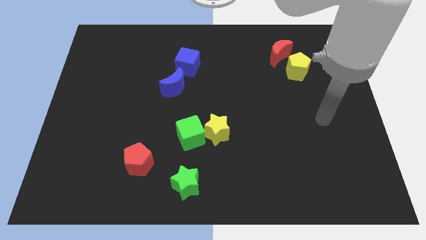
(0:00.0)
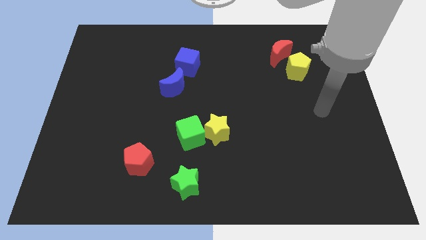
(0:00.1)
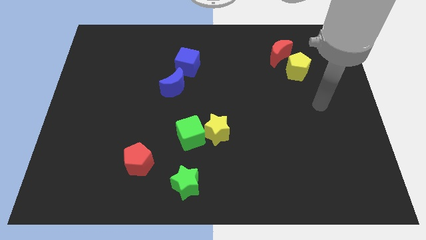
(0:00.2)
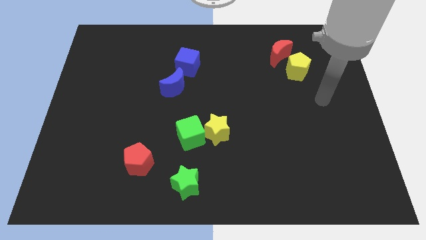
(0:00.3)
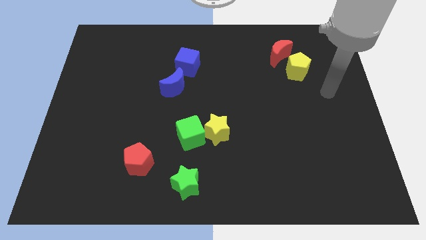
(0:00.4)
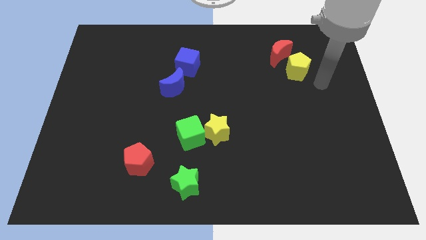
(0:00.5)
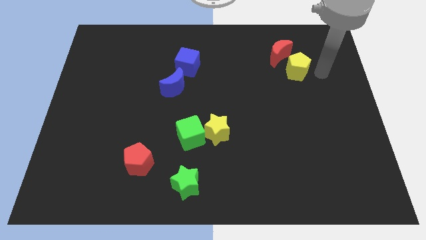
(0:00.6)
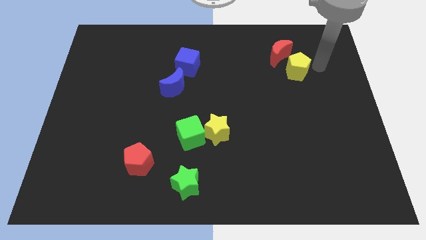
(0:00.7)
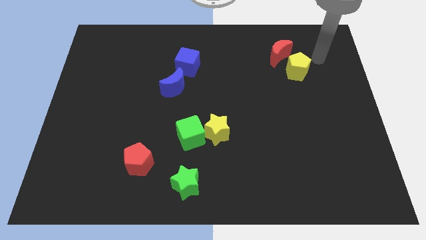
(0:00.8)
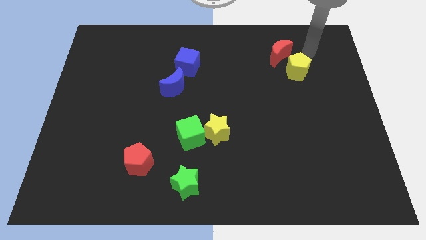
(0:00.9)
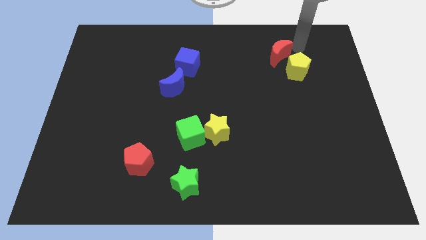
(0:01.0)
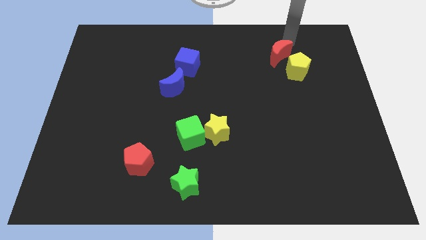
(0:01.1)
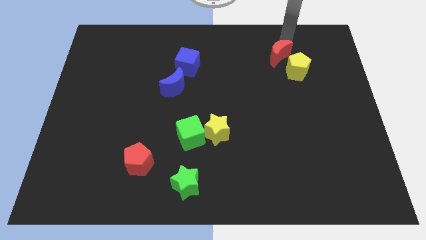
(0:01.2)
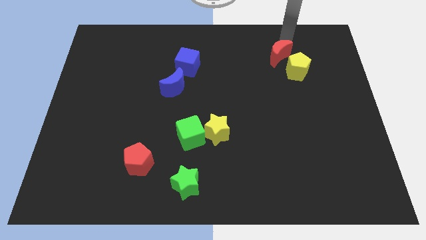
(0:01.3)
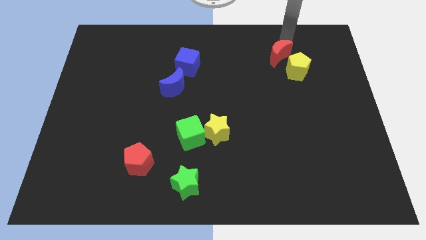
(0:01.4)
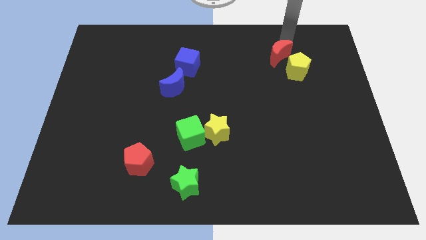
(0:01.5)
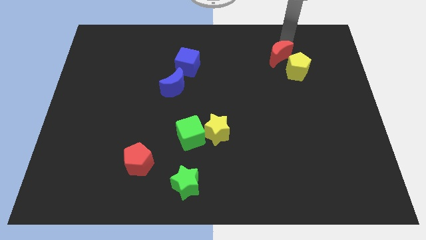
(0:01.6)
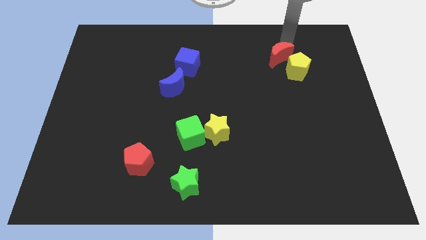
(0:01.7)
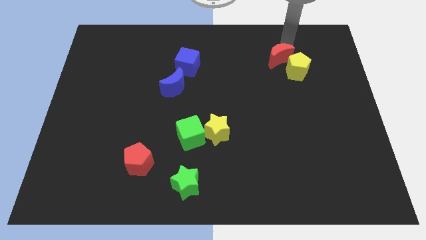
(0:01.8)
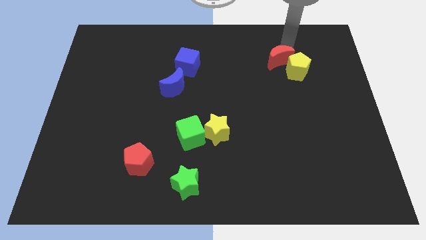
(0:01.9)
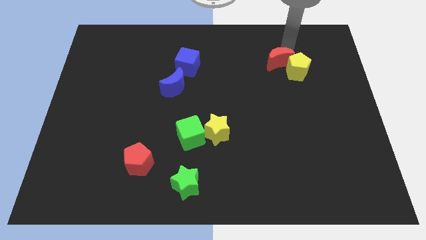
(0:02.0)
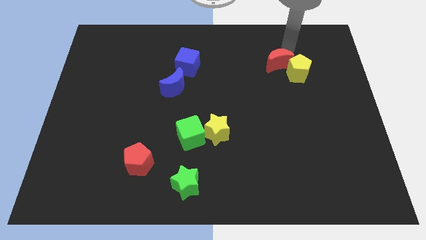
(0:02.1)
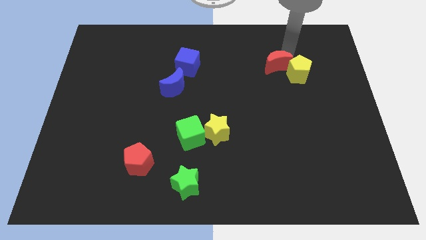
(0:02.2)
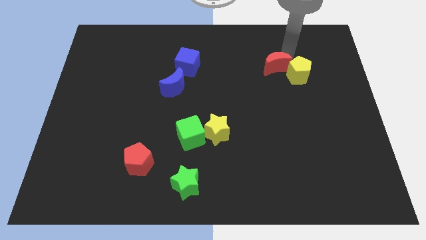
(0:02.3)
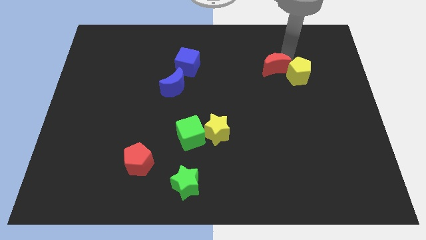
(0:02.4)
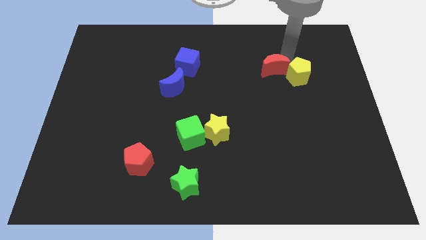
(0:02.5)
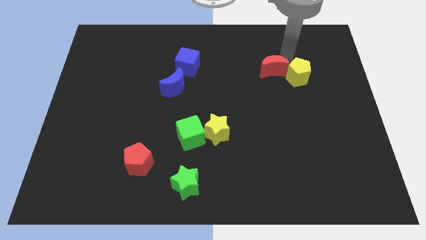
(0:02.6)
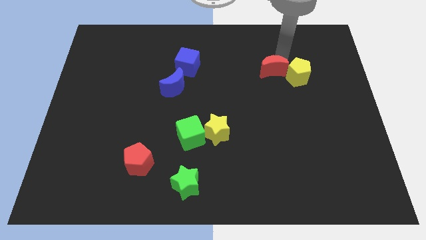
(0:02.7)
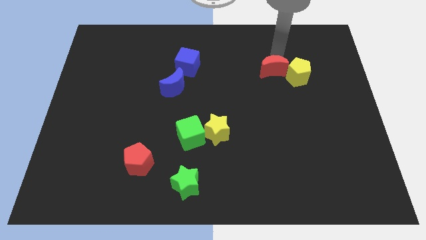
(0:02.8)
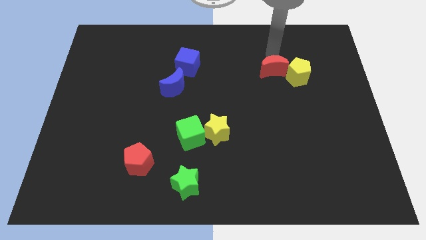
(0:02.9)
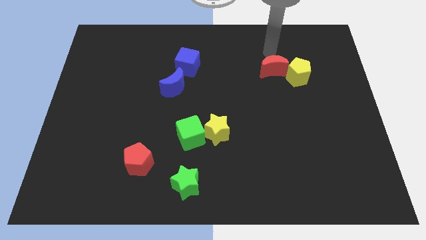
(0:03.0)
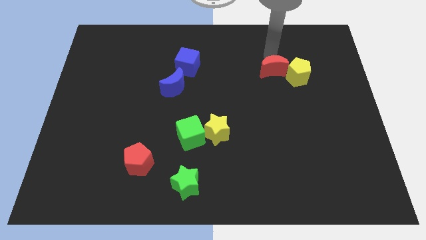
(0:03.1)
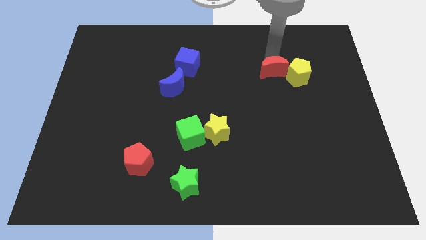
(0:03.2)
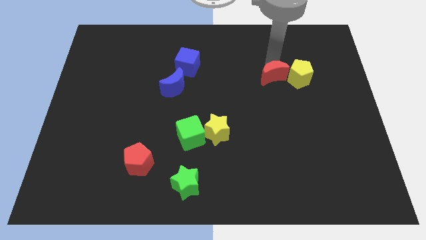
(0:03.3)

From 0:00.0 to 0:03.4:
slightly push the red moon down

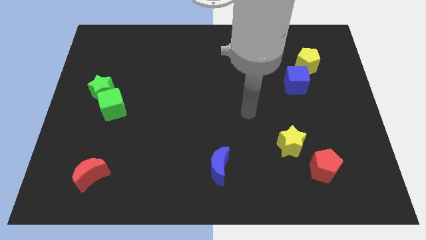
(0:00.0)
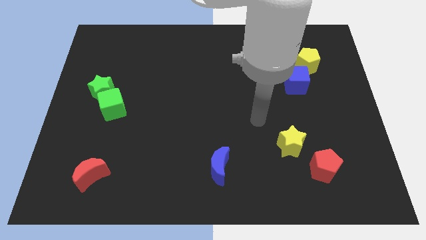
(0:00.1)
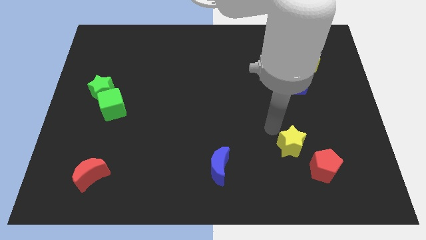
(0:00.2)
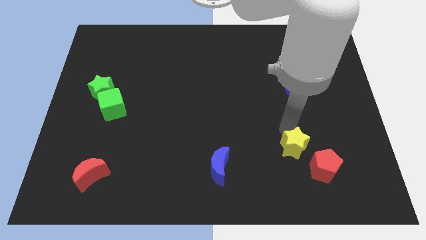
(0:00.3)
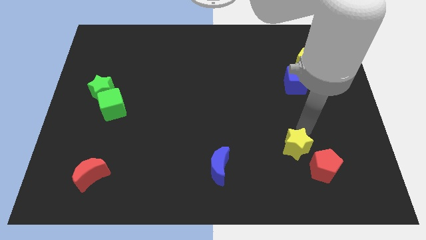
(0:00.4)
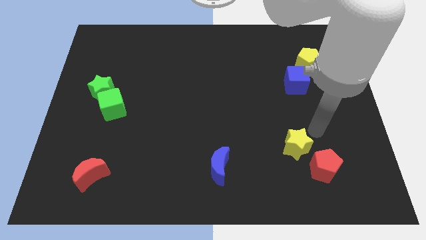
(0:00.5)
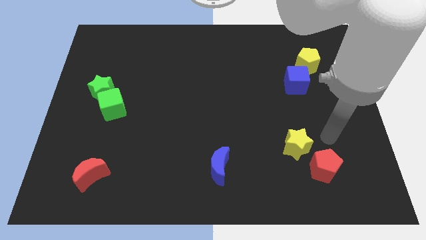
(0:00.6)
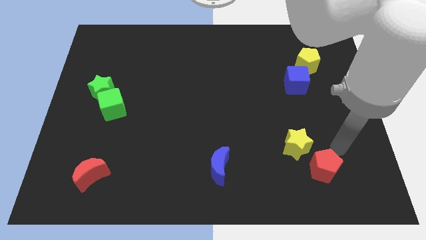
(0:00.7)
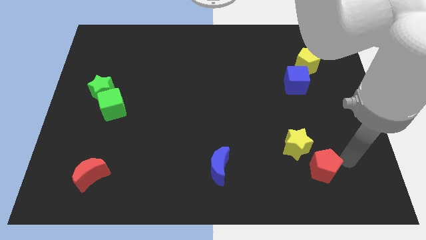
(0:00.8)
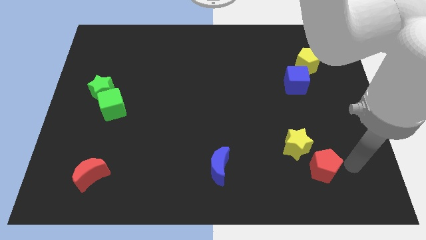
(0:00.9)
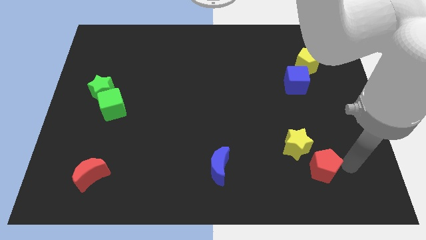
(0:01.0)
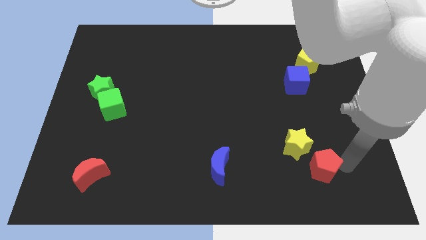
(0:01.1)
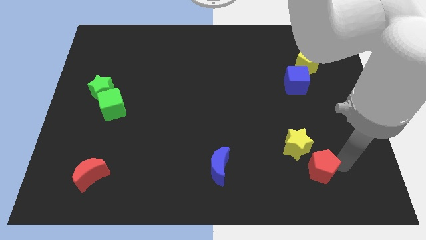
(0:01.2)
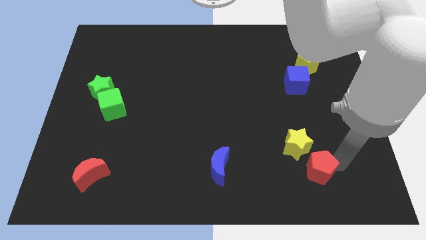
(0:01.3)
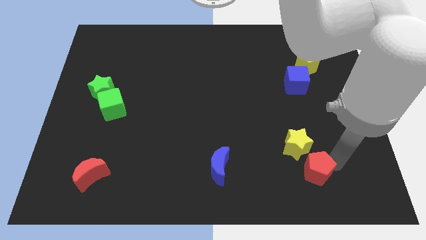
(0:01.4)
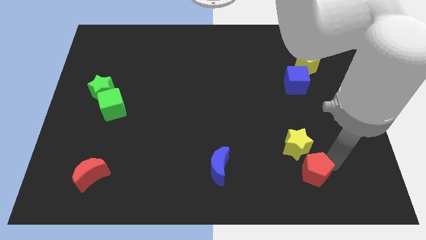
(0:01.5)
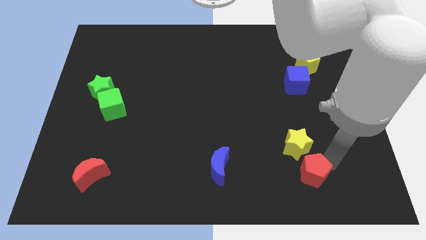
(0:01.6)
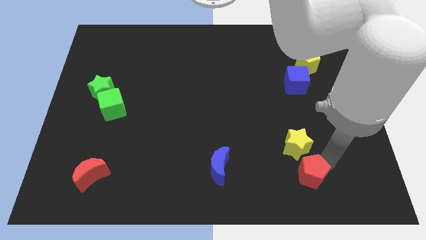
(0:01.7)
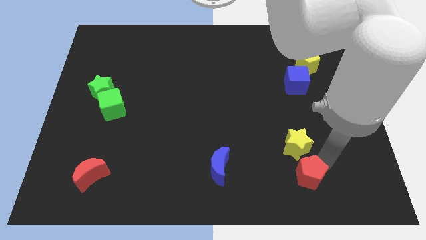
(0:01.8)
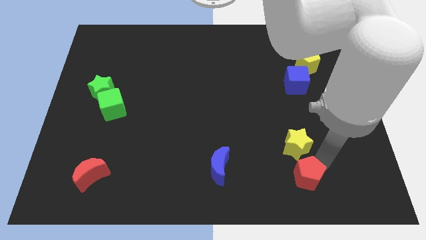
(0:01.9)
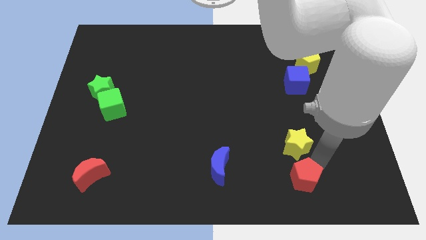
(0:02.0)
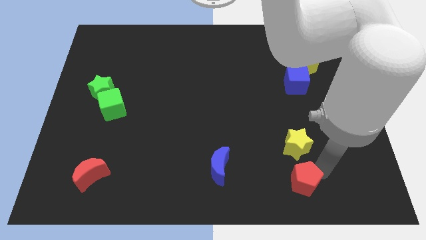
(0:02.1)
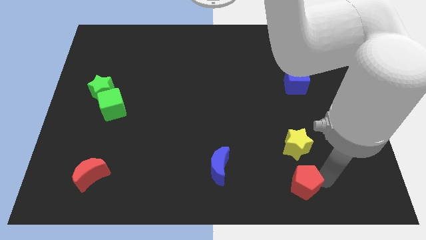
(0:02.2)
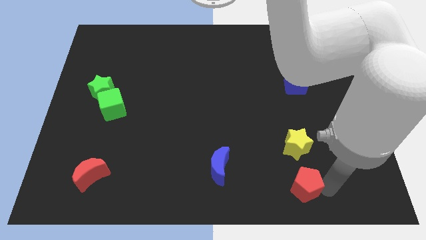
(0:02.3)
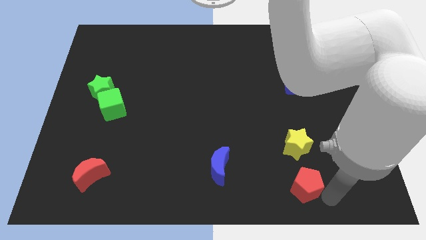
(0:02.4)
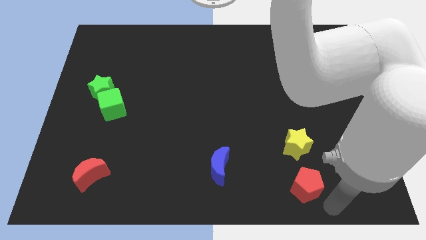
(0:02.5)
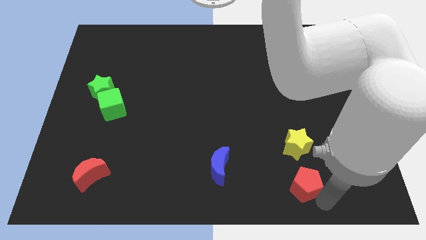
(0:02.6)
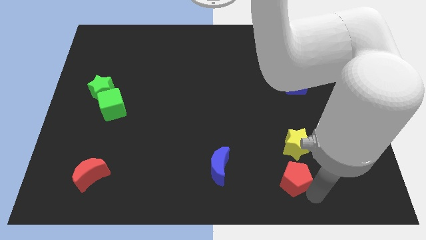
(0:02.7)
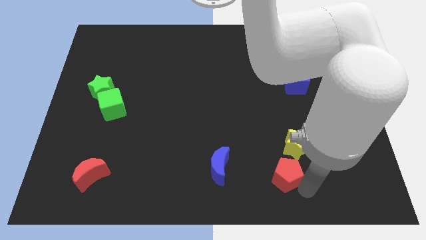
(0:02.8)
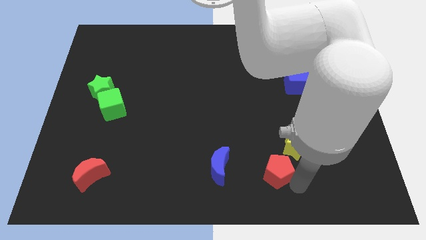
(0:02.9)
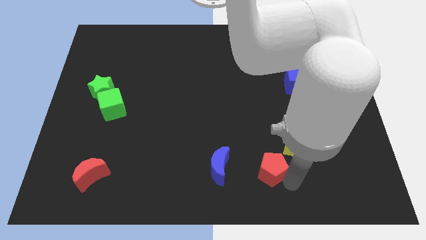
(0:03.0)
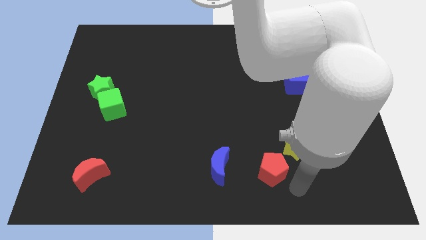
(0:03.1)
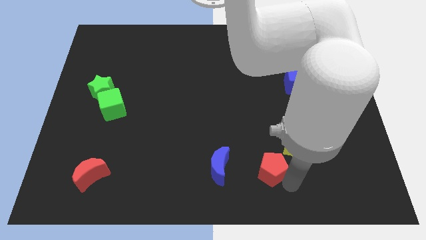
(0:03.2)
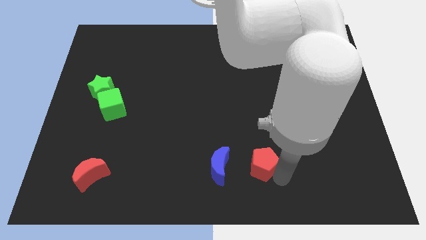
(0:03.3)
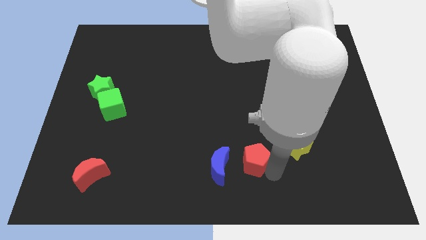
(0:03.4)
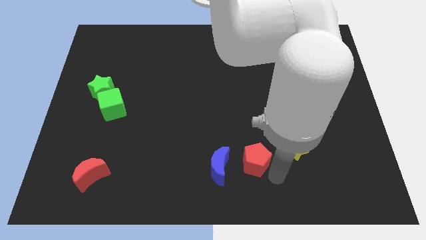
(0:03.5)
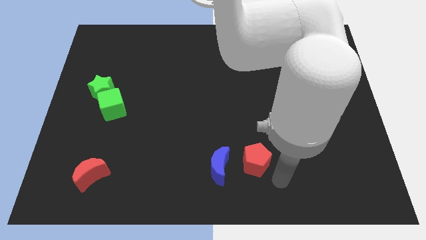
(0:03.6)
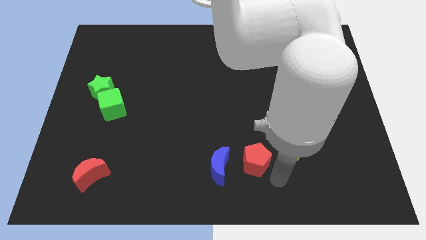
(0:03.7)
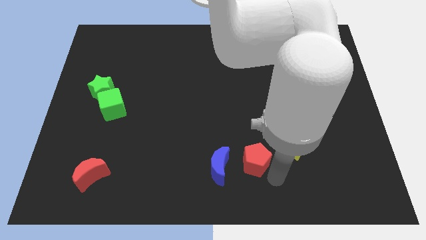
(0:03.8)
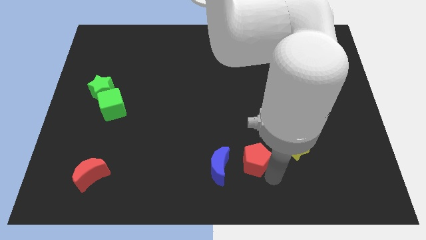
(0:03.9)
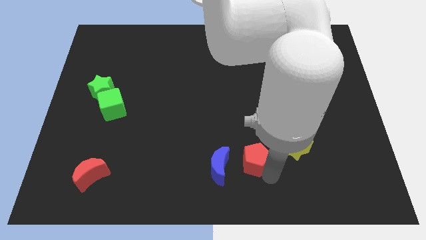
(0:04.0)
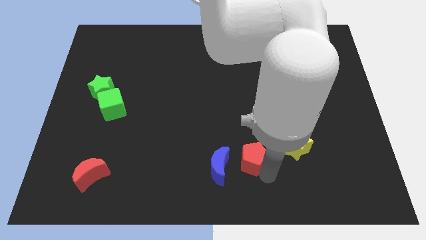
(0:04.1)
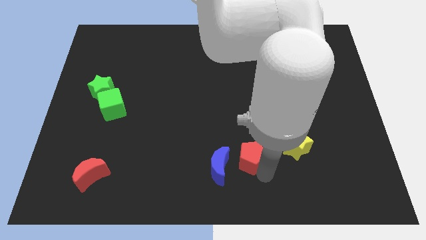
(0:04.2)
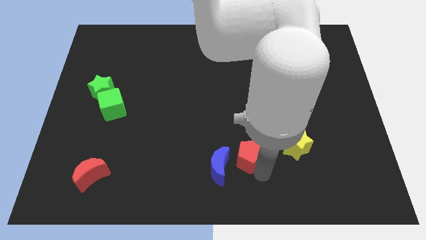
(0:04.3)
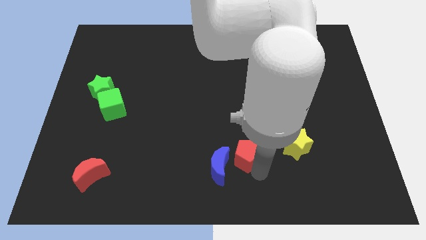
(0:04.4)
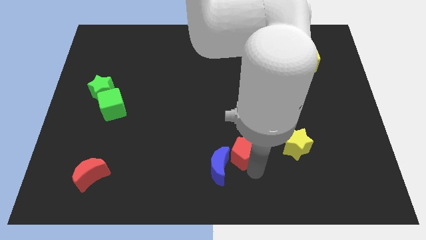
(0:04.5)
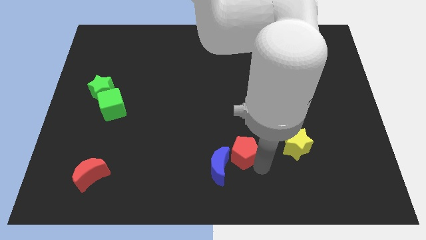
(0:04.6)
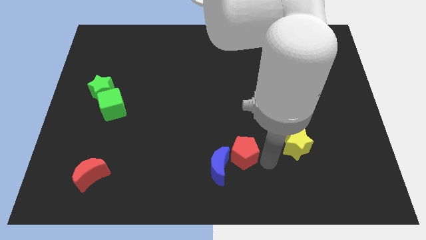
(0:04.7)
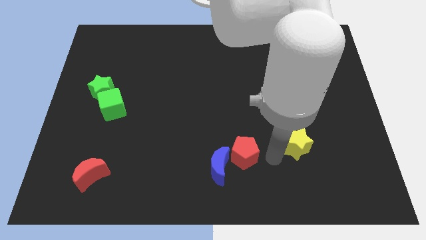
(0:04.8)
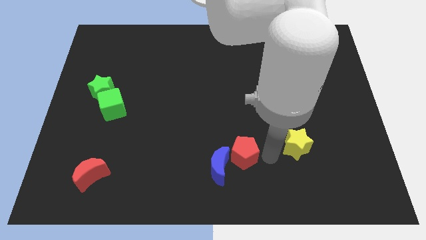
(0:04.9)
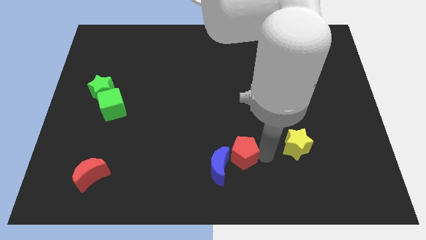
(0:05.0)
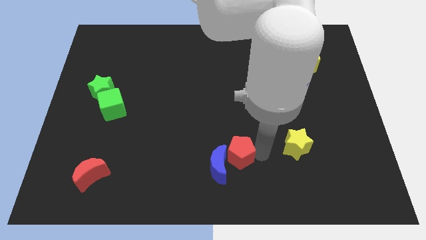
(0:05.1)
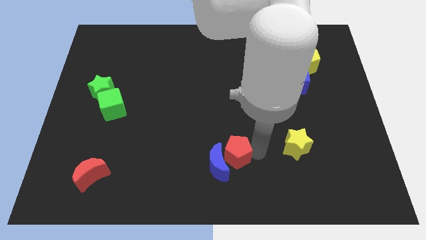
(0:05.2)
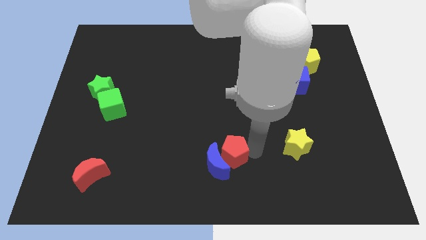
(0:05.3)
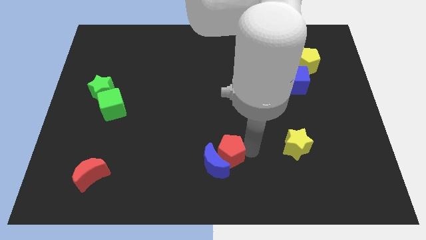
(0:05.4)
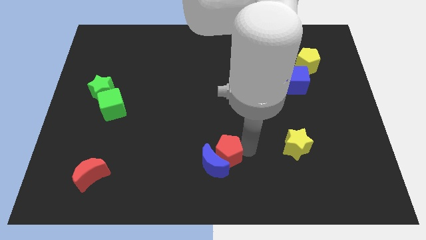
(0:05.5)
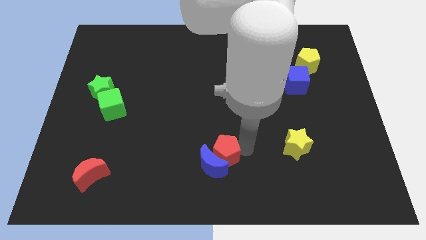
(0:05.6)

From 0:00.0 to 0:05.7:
push the red pentagon left
